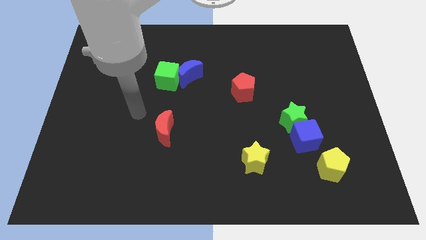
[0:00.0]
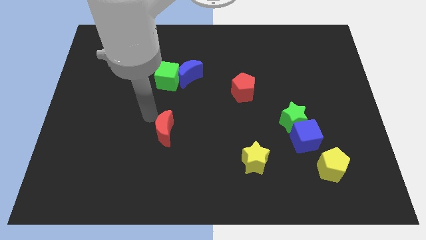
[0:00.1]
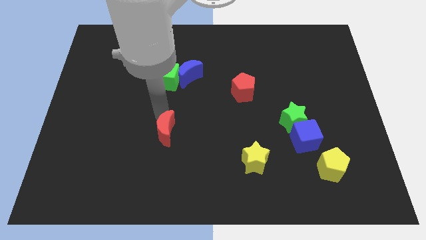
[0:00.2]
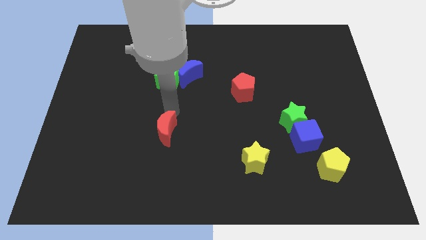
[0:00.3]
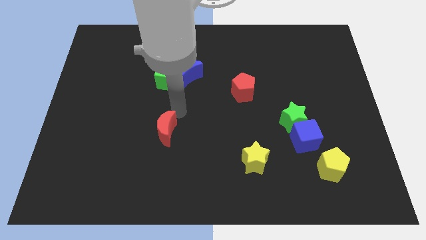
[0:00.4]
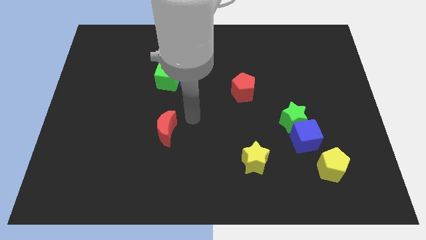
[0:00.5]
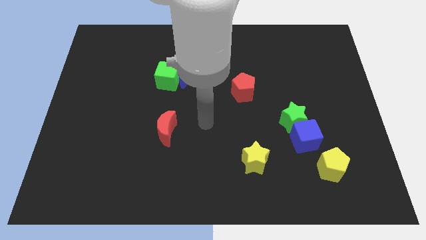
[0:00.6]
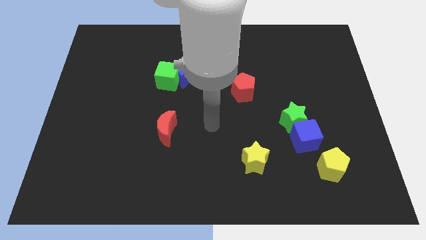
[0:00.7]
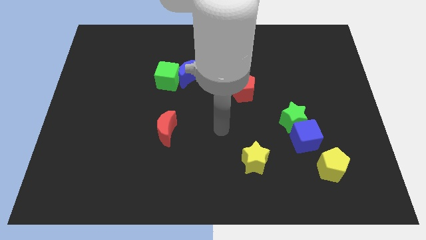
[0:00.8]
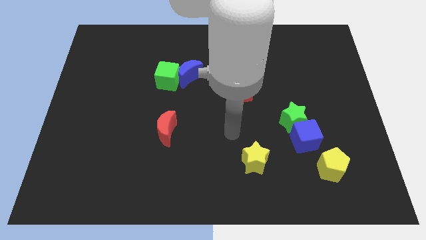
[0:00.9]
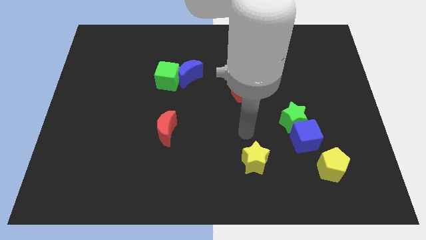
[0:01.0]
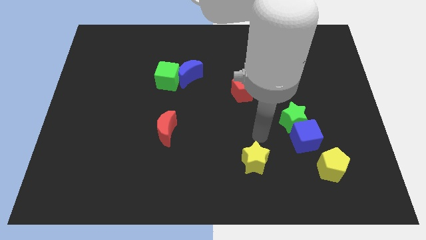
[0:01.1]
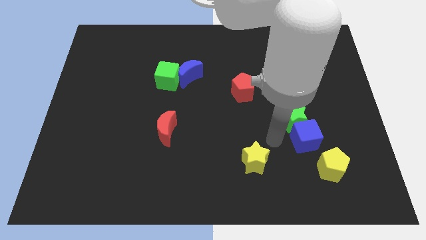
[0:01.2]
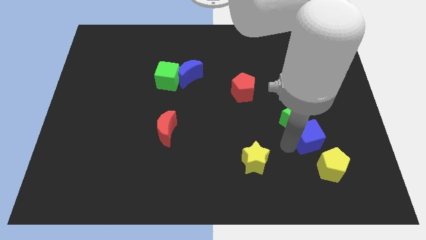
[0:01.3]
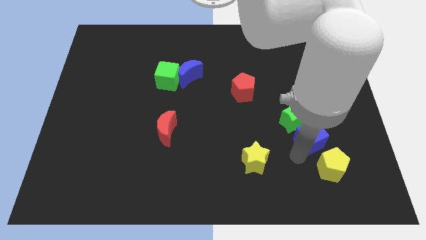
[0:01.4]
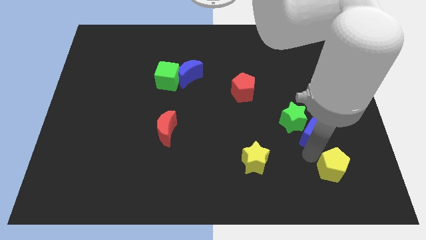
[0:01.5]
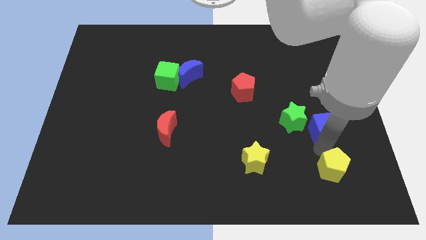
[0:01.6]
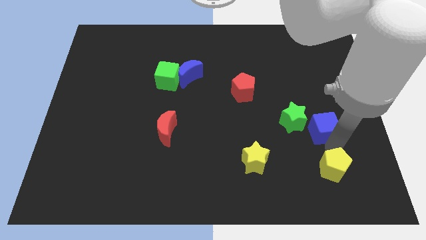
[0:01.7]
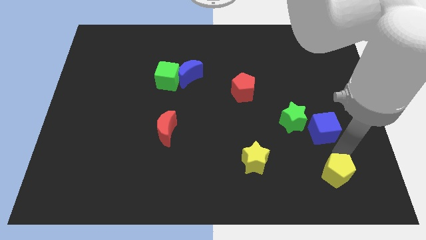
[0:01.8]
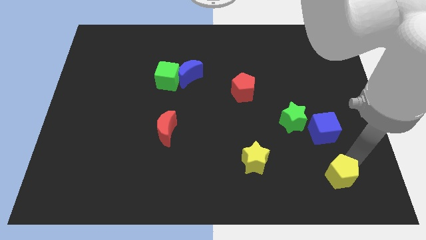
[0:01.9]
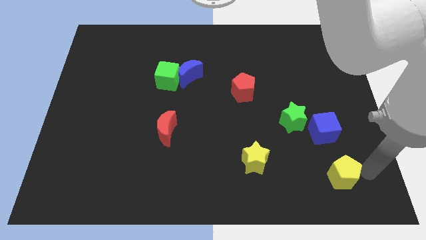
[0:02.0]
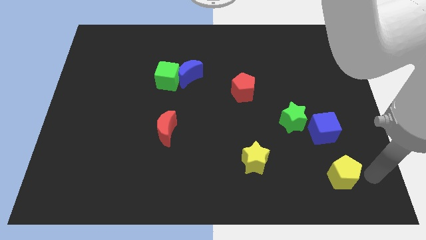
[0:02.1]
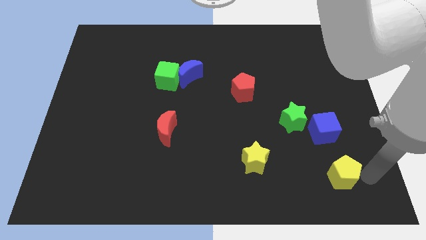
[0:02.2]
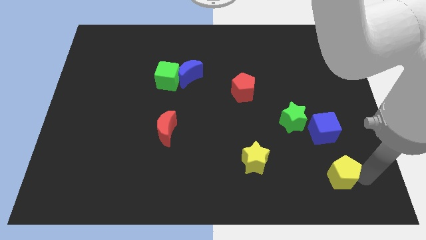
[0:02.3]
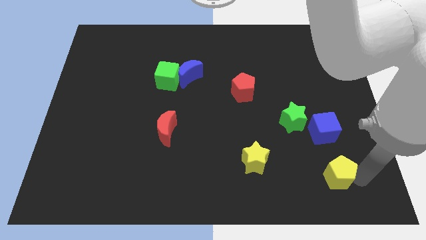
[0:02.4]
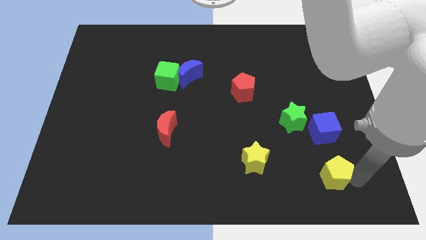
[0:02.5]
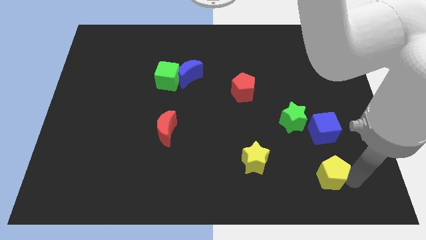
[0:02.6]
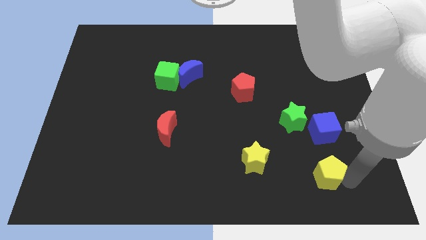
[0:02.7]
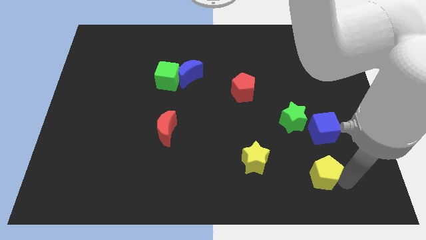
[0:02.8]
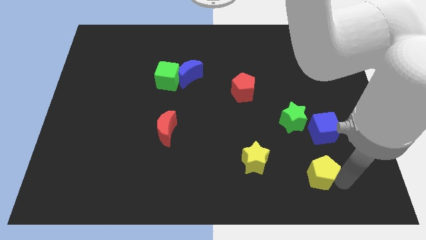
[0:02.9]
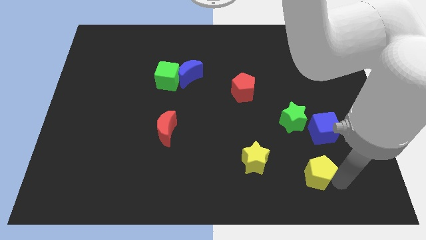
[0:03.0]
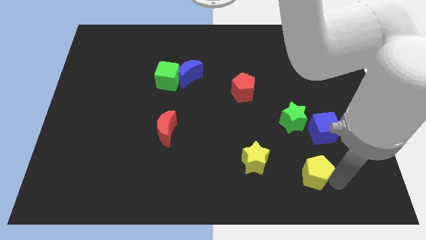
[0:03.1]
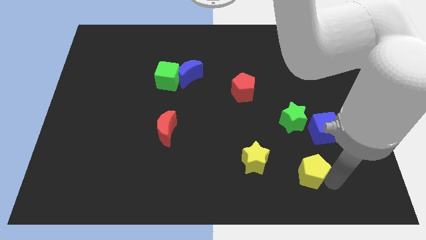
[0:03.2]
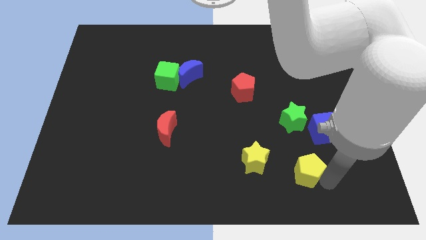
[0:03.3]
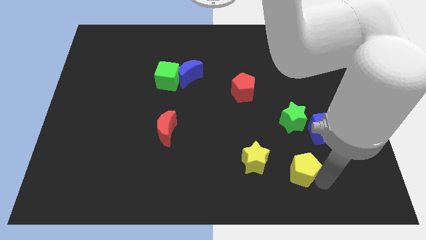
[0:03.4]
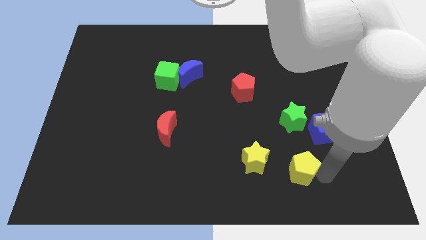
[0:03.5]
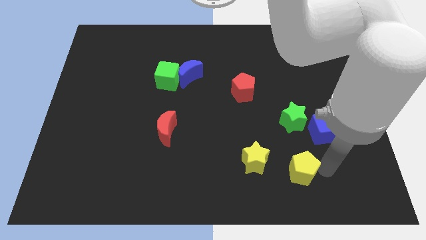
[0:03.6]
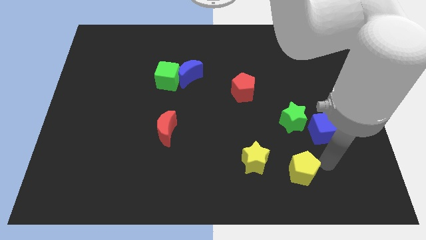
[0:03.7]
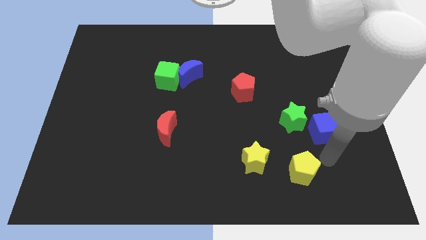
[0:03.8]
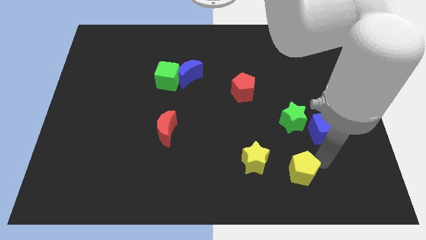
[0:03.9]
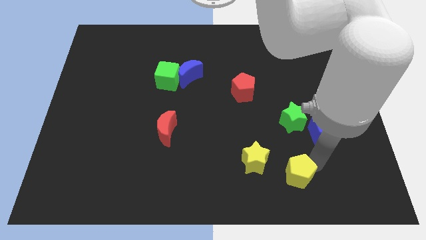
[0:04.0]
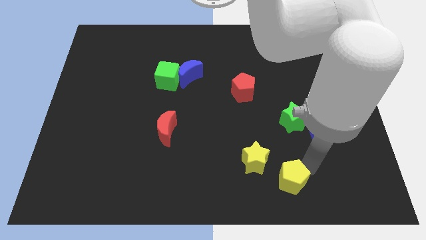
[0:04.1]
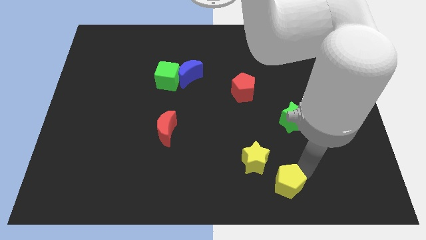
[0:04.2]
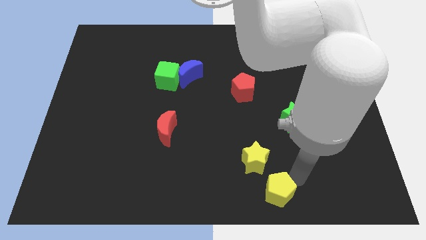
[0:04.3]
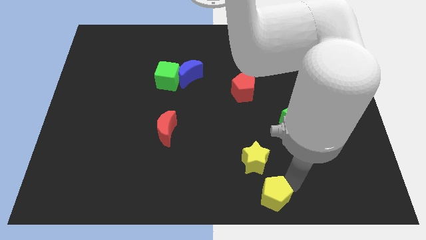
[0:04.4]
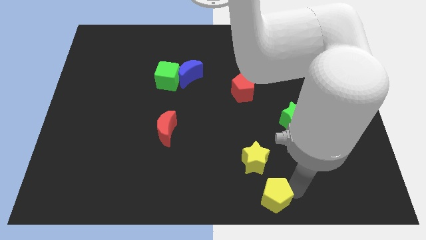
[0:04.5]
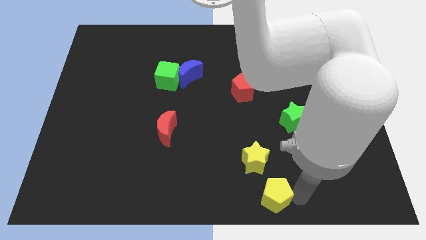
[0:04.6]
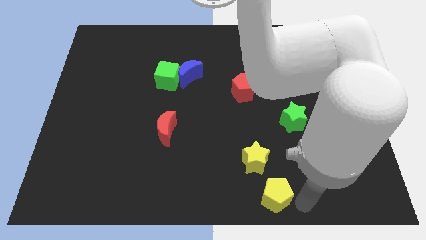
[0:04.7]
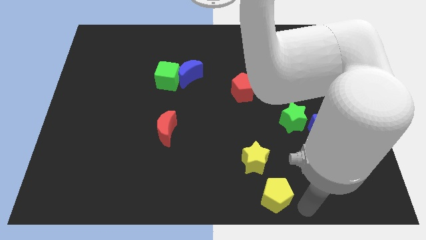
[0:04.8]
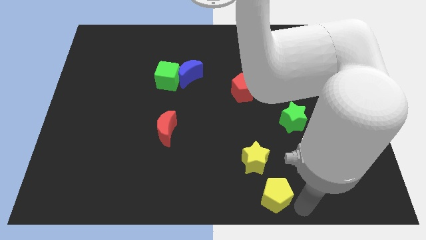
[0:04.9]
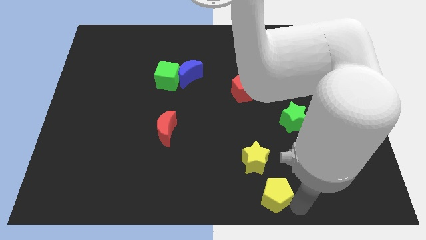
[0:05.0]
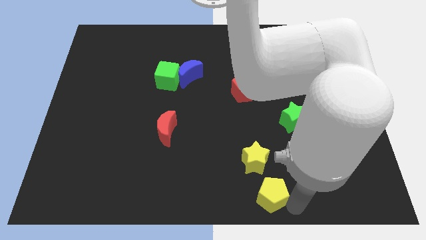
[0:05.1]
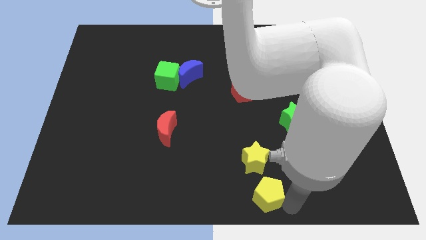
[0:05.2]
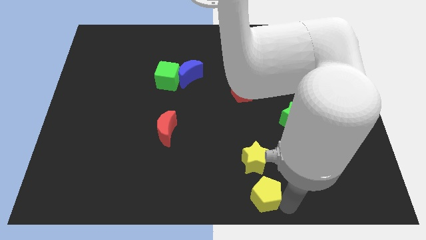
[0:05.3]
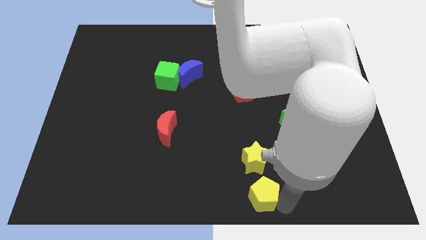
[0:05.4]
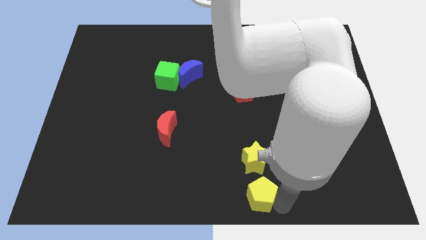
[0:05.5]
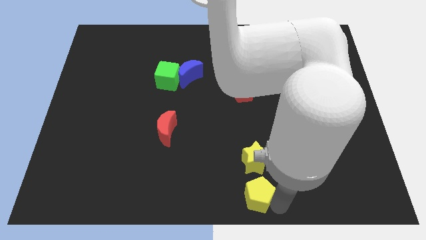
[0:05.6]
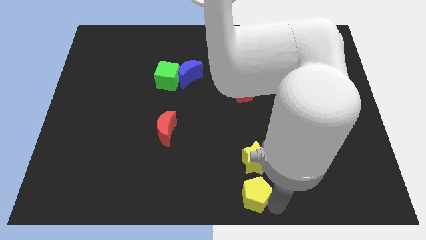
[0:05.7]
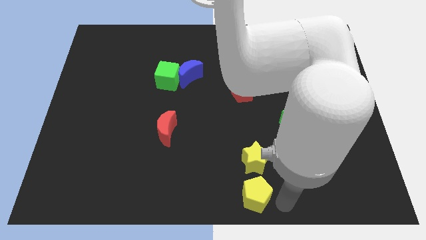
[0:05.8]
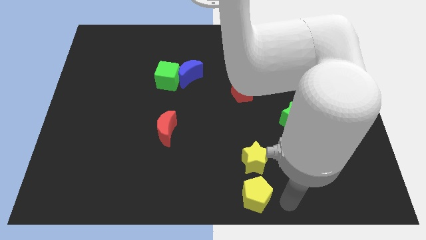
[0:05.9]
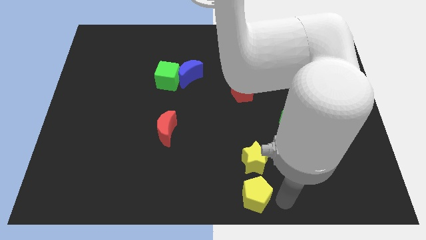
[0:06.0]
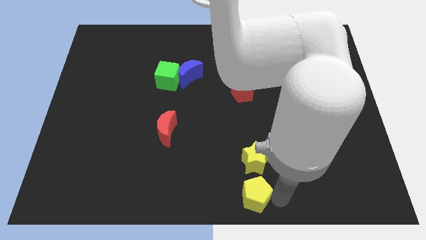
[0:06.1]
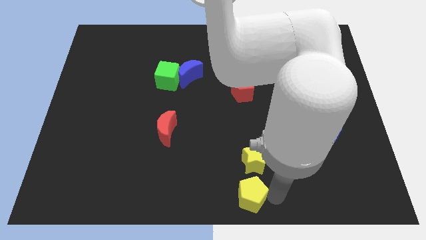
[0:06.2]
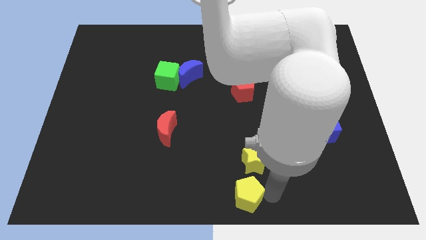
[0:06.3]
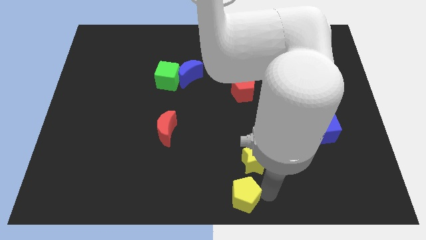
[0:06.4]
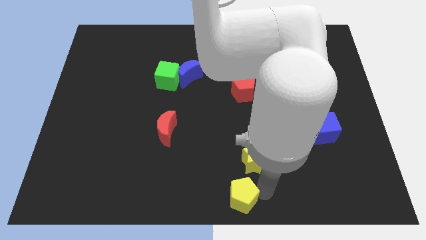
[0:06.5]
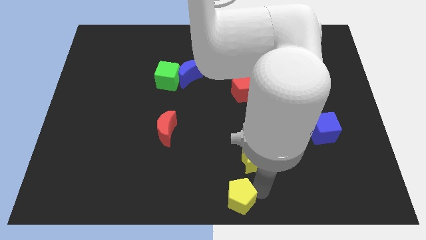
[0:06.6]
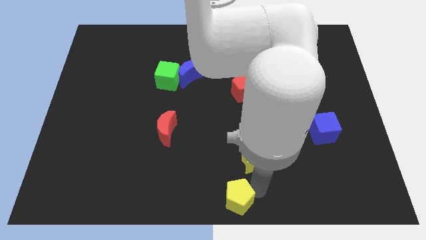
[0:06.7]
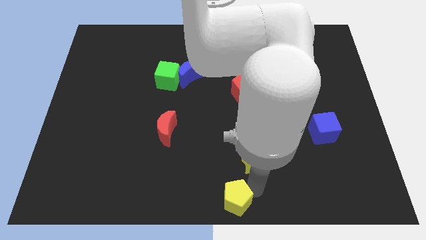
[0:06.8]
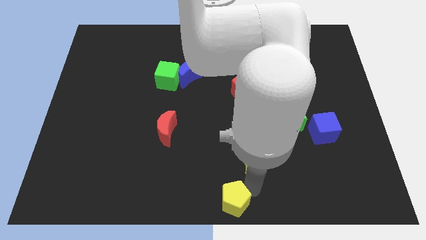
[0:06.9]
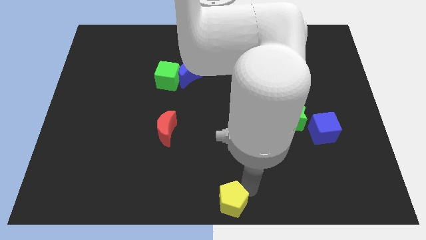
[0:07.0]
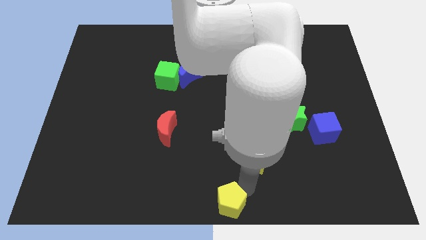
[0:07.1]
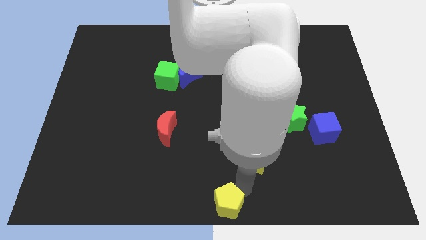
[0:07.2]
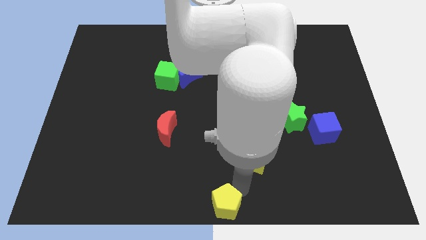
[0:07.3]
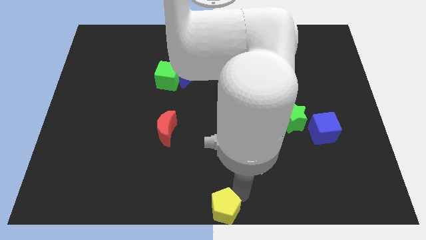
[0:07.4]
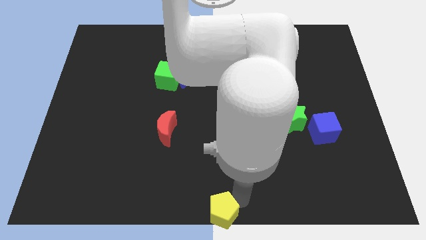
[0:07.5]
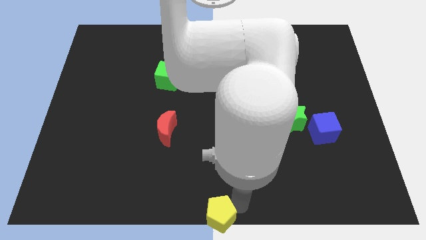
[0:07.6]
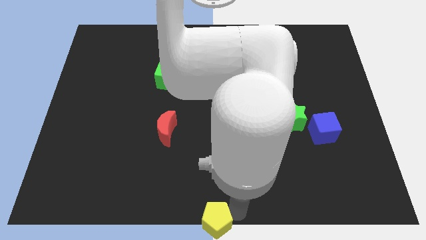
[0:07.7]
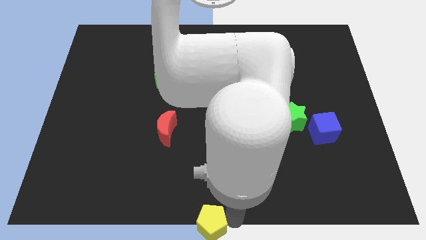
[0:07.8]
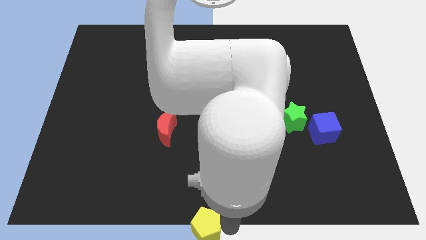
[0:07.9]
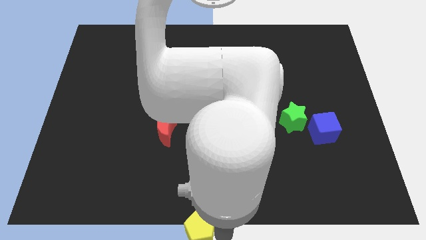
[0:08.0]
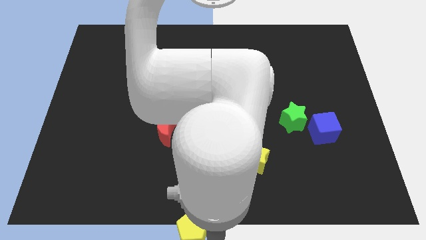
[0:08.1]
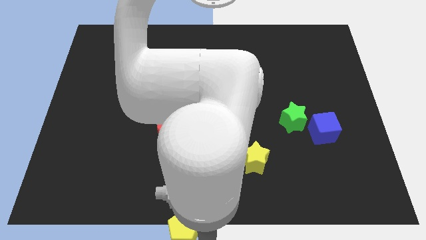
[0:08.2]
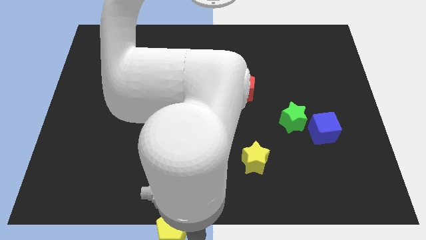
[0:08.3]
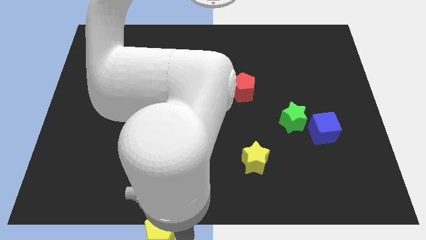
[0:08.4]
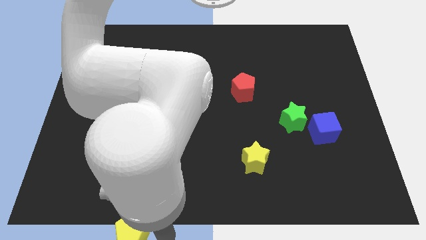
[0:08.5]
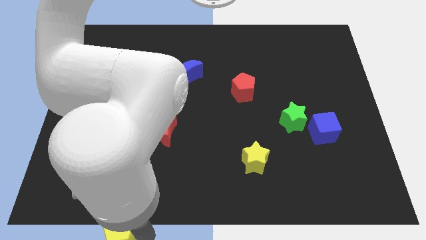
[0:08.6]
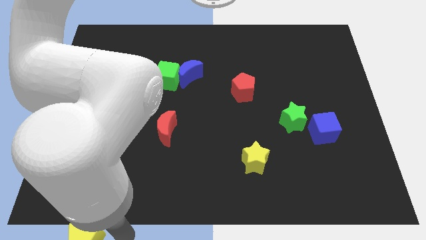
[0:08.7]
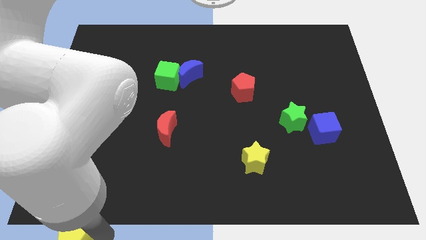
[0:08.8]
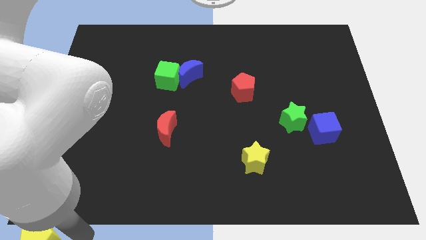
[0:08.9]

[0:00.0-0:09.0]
put the yellow pentagon to the bottom left of the board
